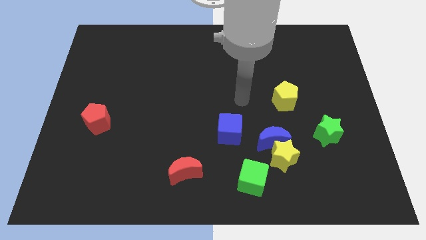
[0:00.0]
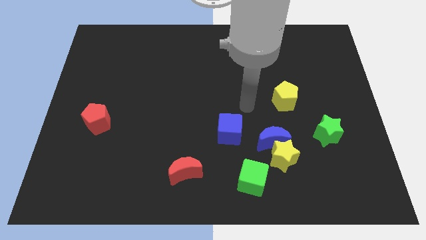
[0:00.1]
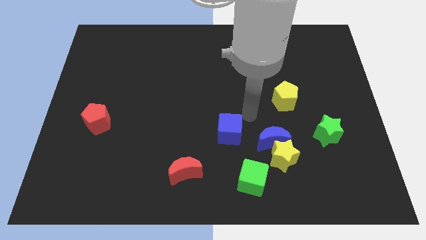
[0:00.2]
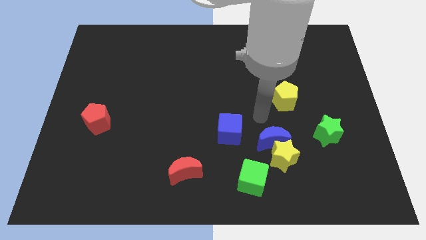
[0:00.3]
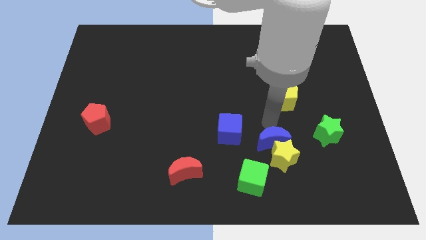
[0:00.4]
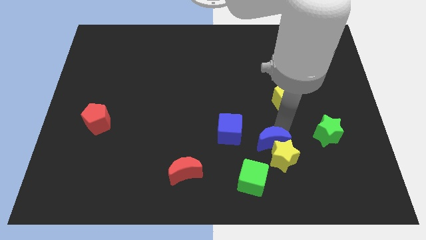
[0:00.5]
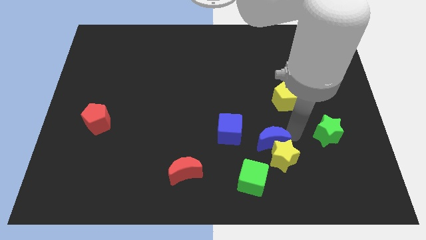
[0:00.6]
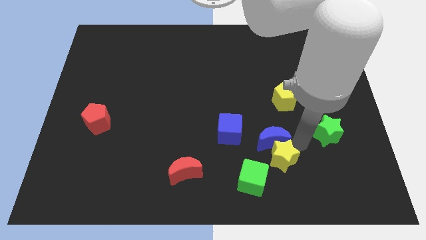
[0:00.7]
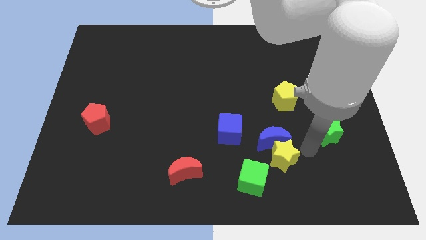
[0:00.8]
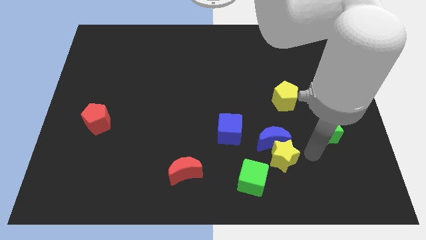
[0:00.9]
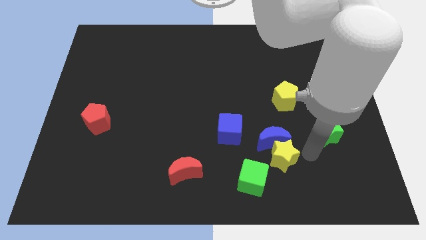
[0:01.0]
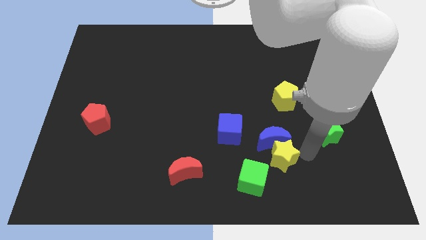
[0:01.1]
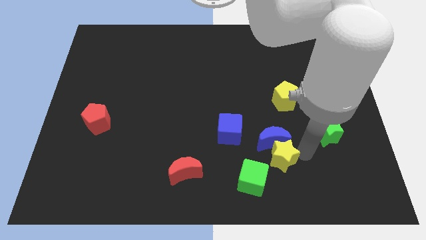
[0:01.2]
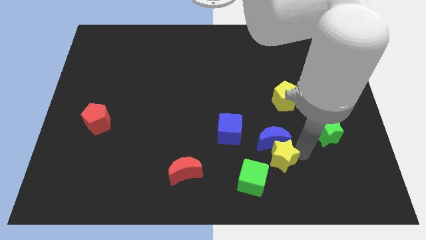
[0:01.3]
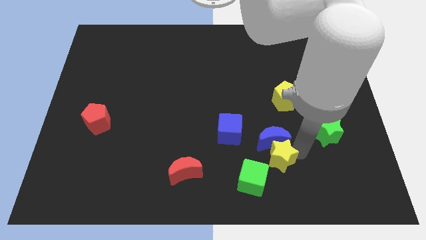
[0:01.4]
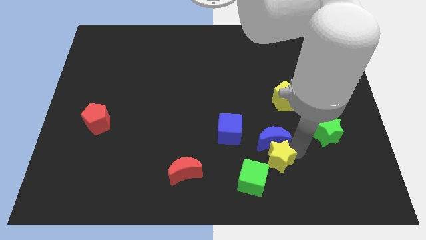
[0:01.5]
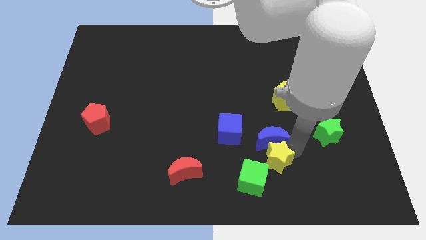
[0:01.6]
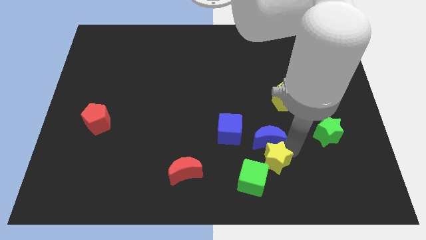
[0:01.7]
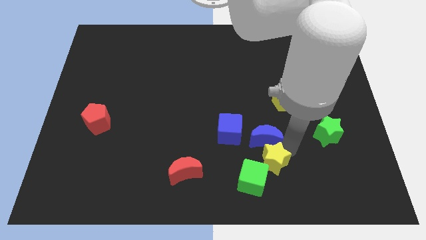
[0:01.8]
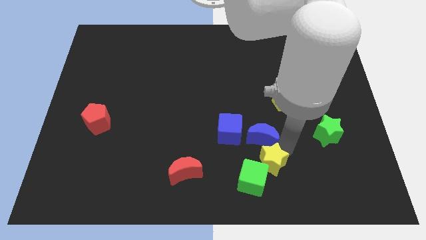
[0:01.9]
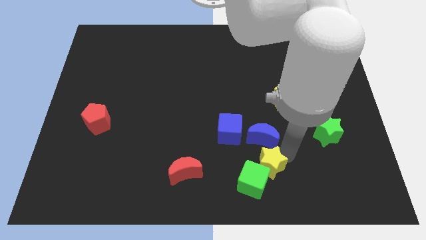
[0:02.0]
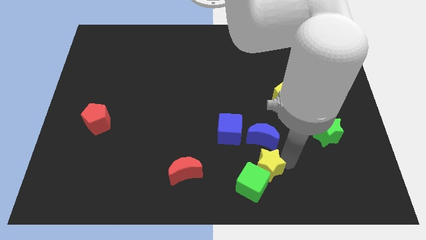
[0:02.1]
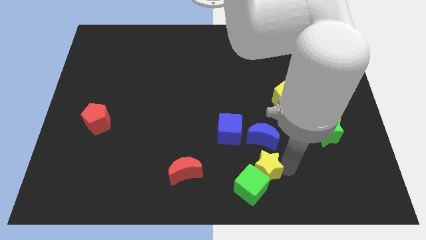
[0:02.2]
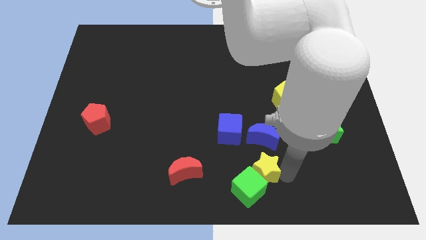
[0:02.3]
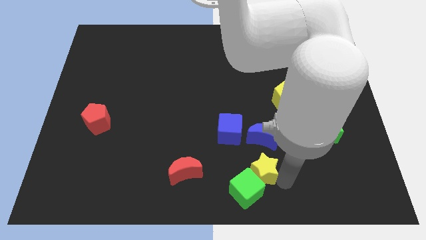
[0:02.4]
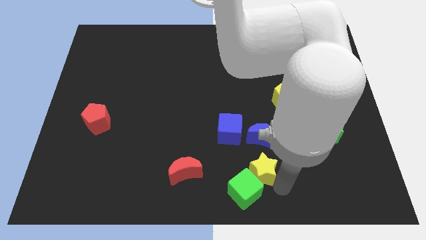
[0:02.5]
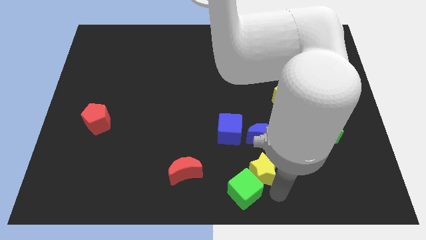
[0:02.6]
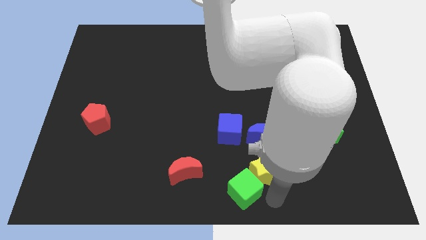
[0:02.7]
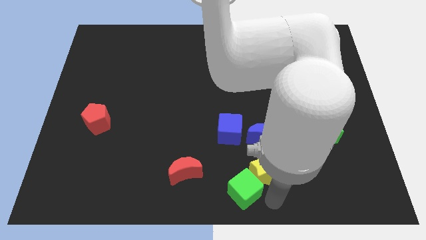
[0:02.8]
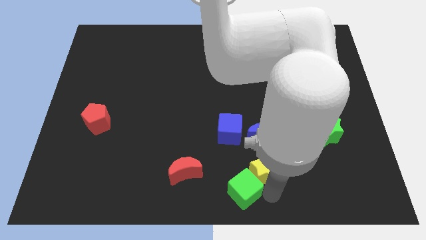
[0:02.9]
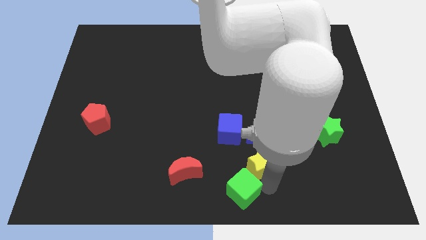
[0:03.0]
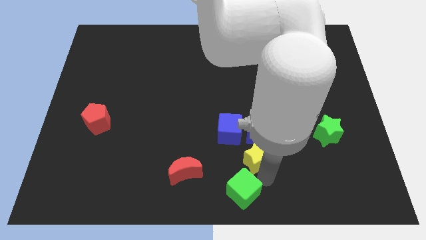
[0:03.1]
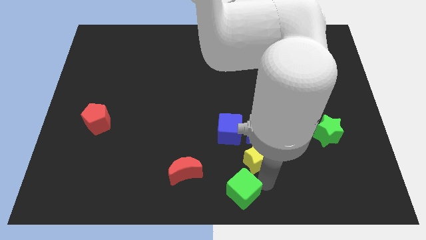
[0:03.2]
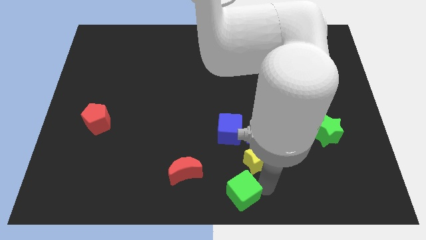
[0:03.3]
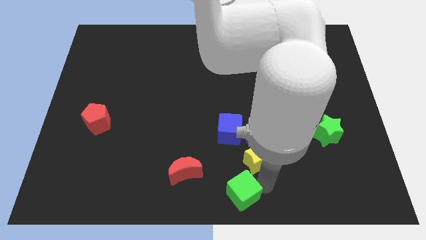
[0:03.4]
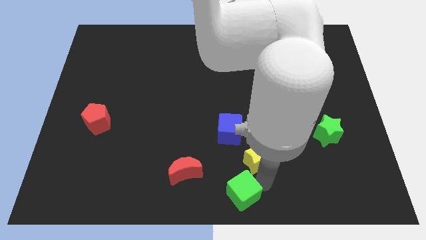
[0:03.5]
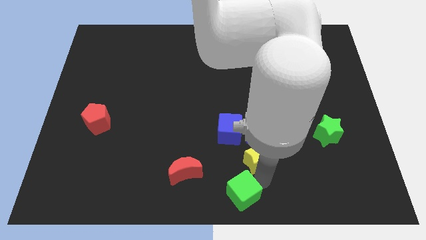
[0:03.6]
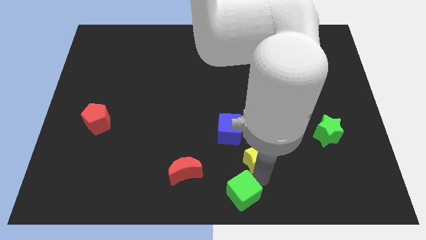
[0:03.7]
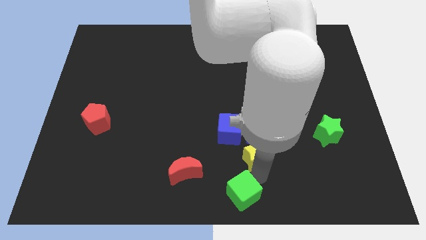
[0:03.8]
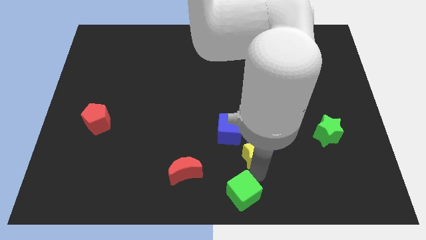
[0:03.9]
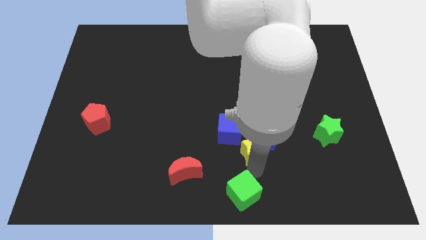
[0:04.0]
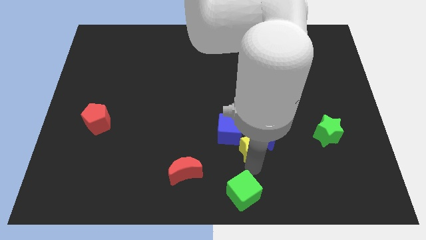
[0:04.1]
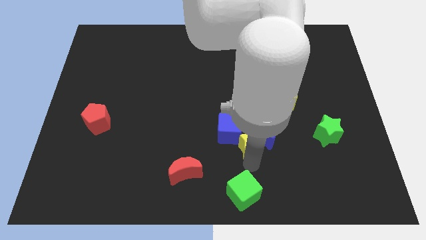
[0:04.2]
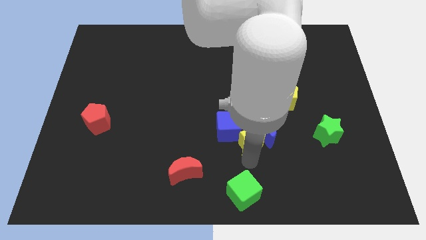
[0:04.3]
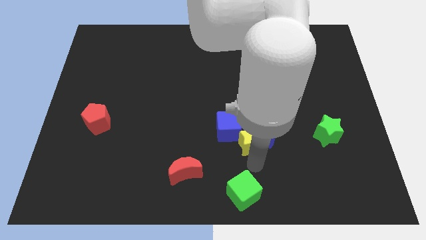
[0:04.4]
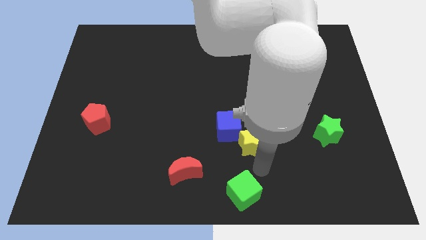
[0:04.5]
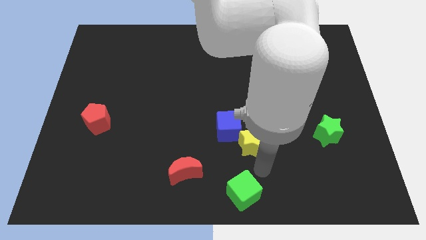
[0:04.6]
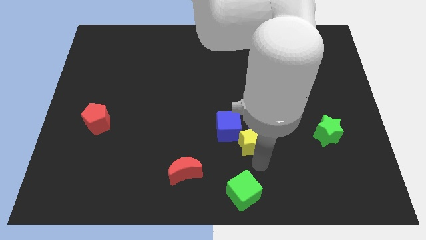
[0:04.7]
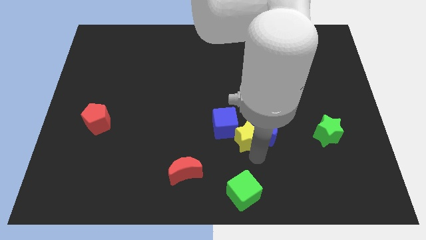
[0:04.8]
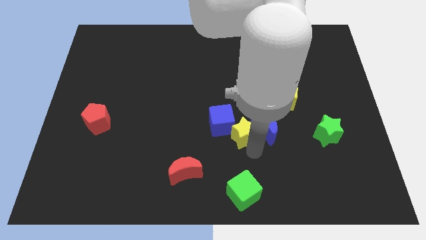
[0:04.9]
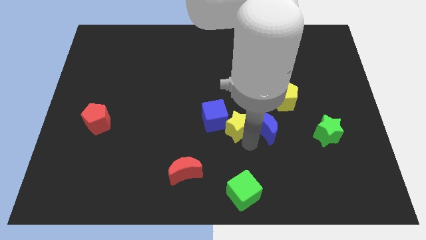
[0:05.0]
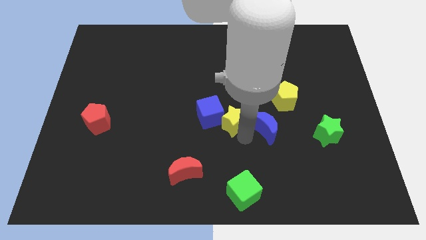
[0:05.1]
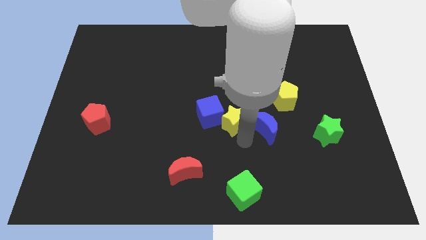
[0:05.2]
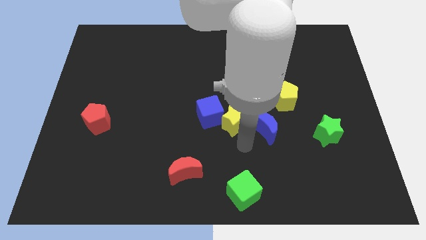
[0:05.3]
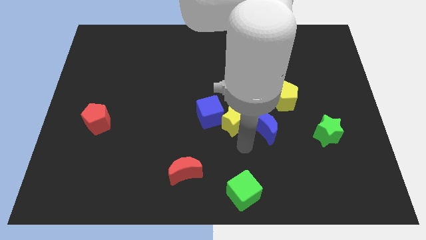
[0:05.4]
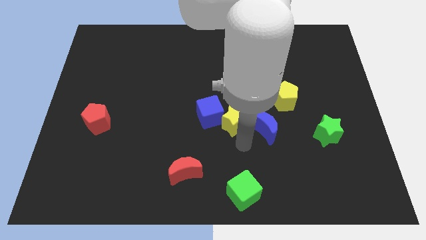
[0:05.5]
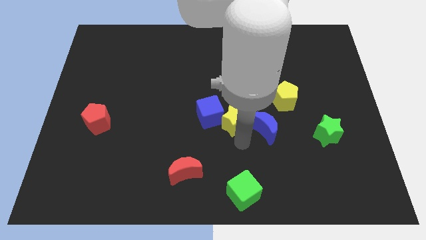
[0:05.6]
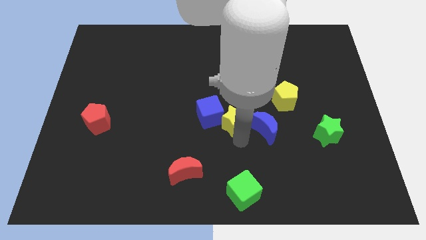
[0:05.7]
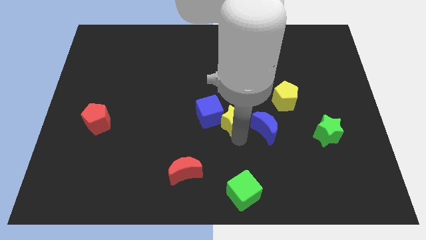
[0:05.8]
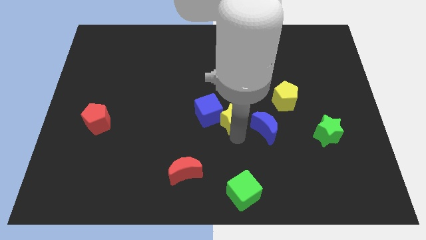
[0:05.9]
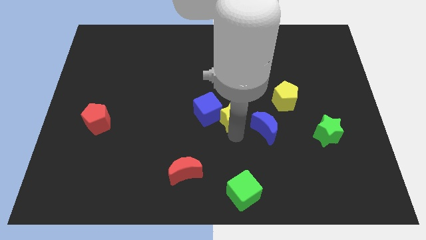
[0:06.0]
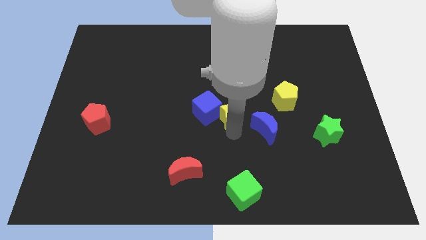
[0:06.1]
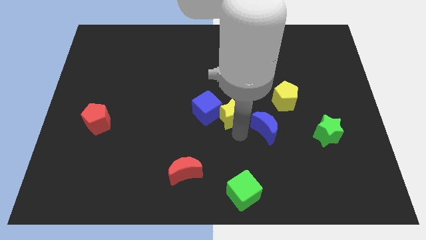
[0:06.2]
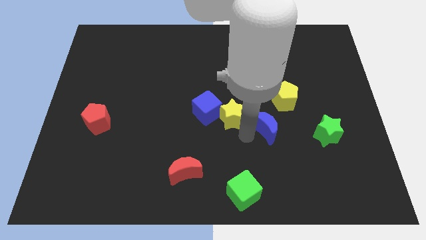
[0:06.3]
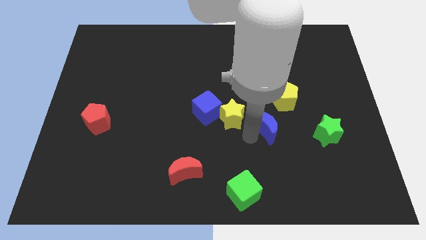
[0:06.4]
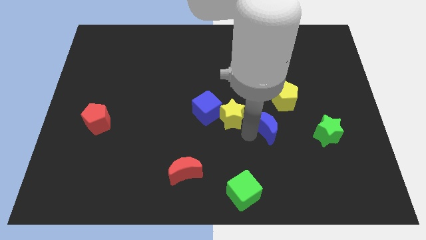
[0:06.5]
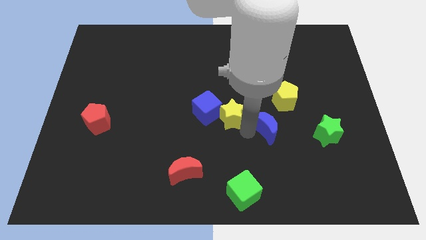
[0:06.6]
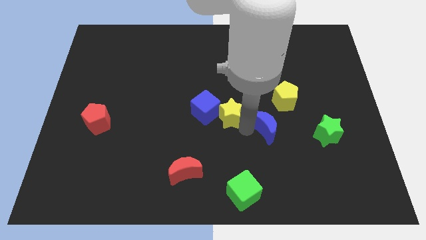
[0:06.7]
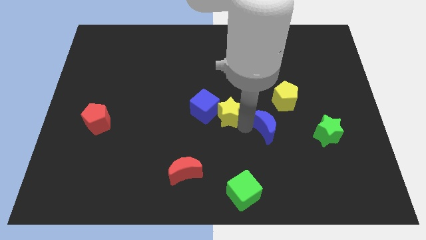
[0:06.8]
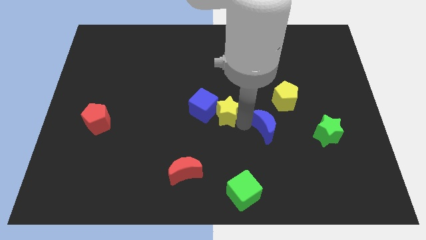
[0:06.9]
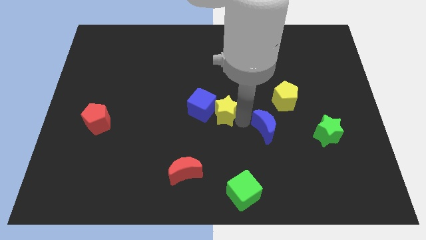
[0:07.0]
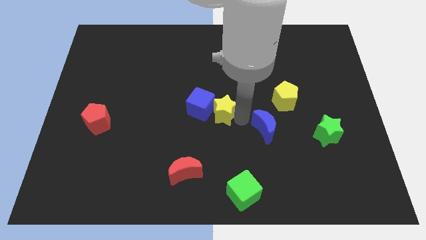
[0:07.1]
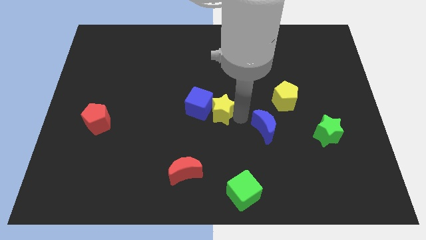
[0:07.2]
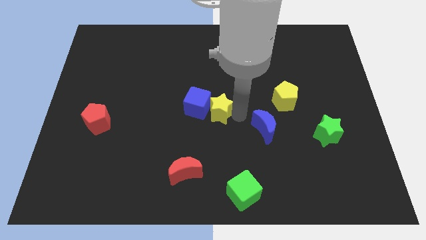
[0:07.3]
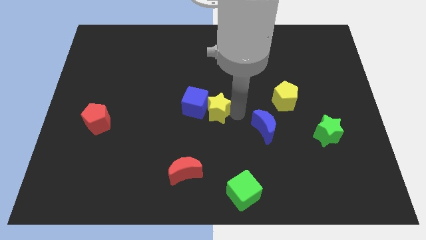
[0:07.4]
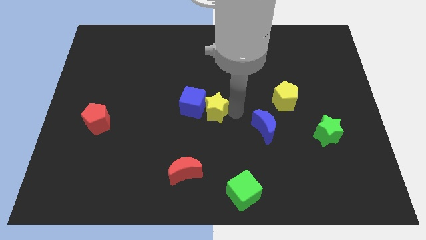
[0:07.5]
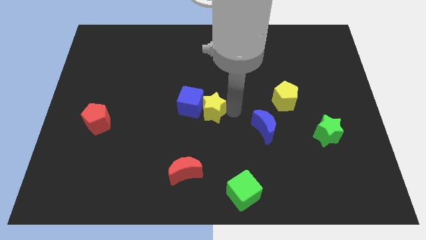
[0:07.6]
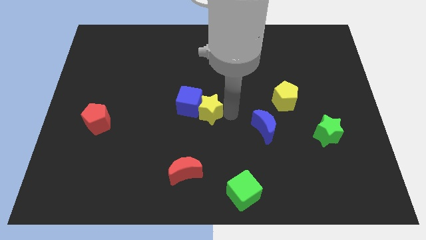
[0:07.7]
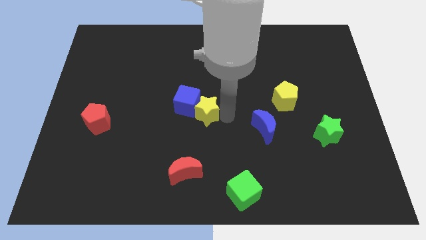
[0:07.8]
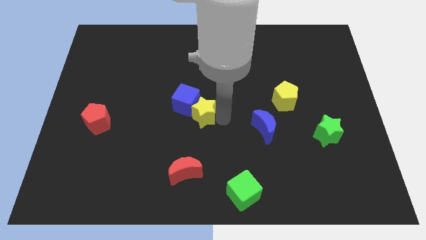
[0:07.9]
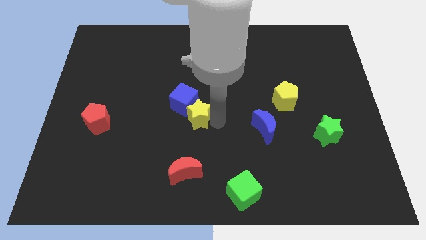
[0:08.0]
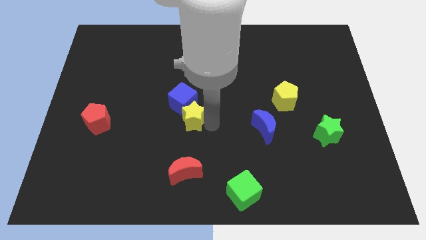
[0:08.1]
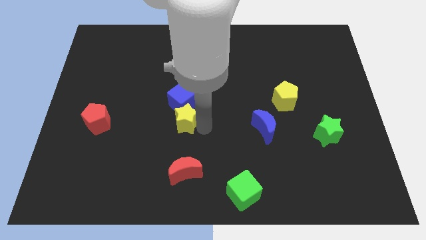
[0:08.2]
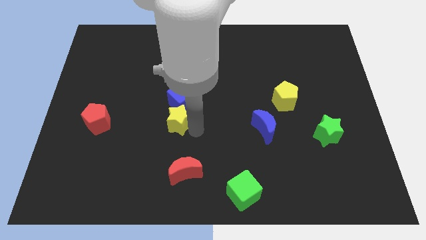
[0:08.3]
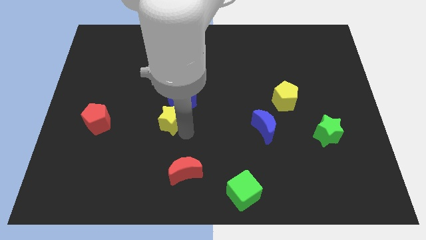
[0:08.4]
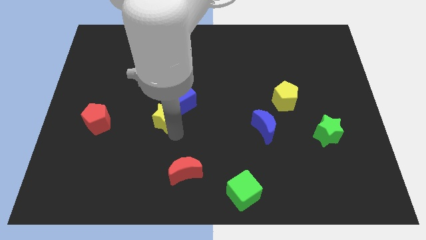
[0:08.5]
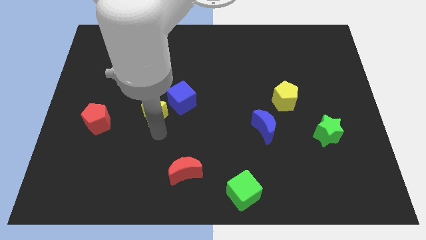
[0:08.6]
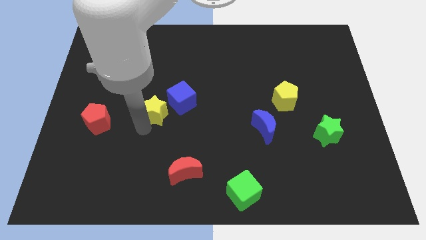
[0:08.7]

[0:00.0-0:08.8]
move the yellow star upwards and then left
